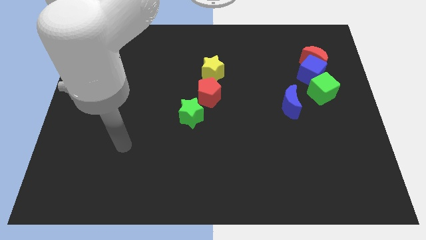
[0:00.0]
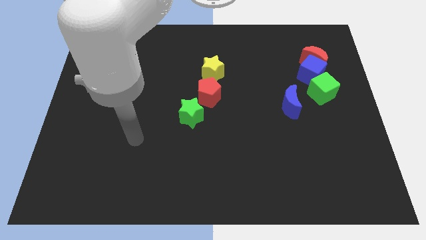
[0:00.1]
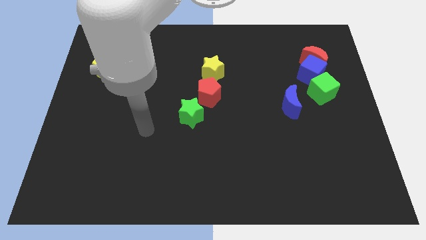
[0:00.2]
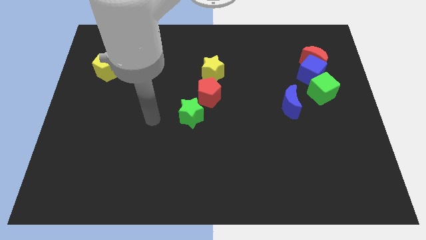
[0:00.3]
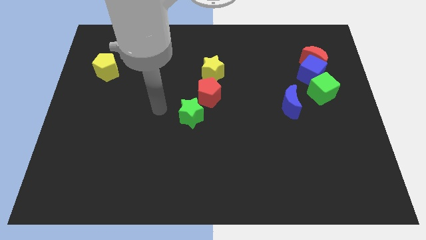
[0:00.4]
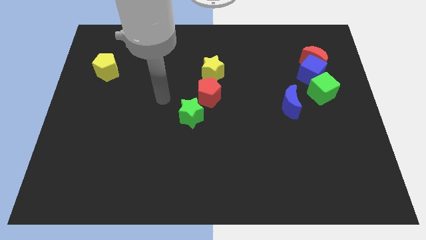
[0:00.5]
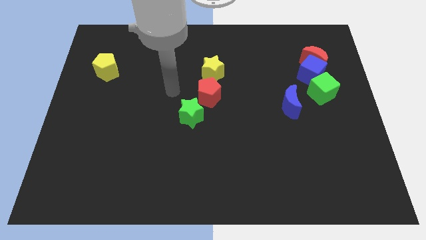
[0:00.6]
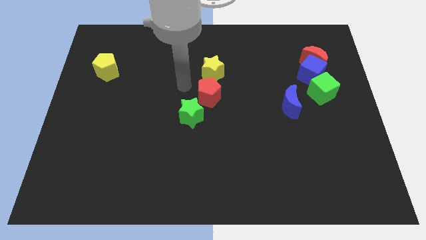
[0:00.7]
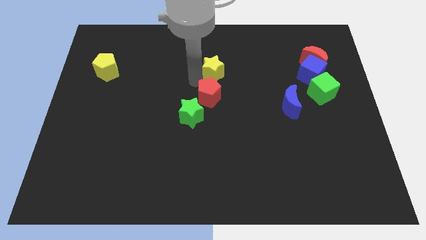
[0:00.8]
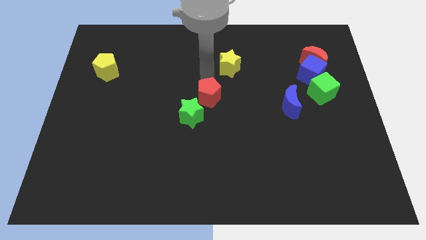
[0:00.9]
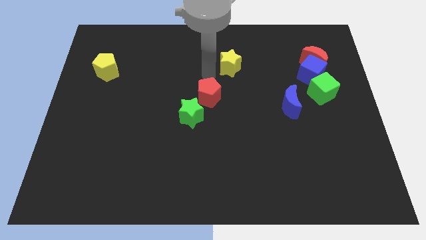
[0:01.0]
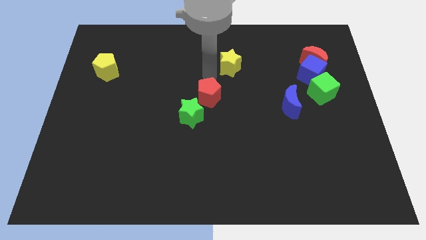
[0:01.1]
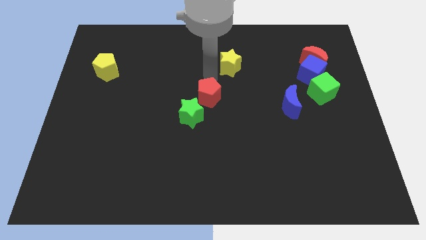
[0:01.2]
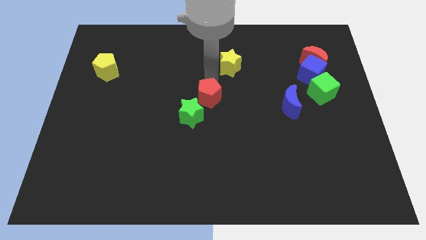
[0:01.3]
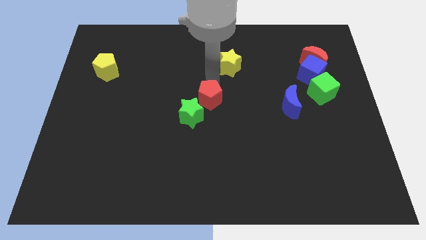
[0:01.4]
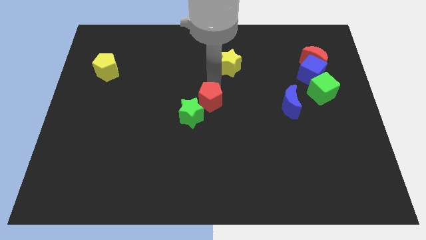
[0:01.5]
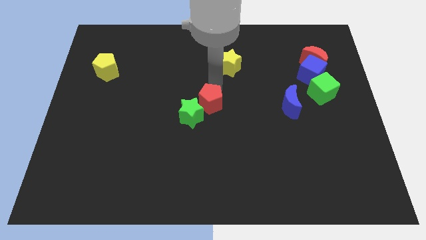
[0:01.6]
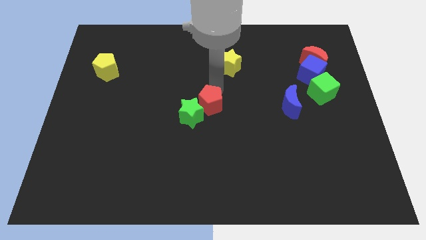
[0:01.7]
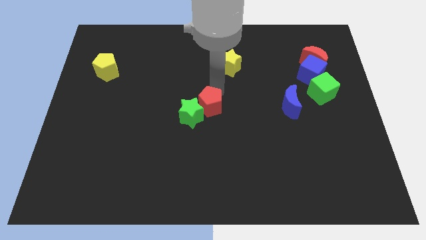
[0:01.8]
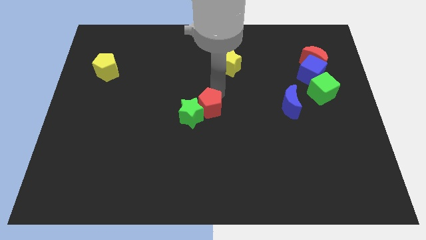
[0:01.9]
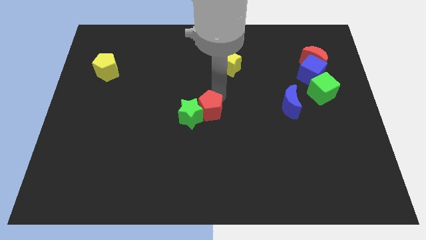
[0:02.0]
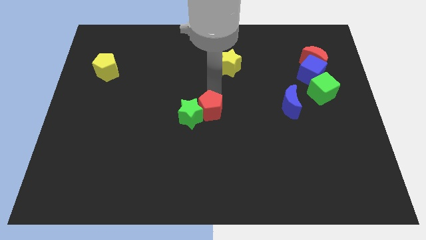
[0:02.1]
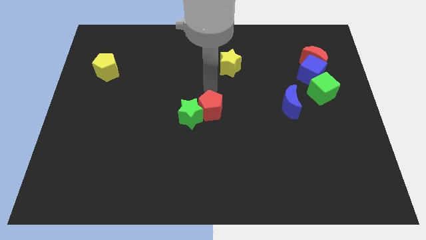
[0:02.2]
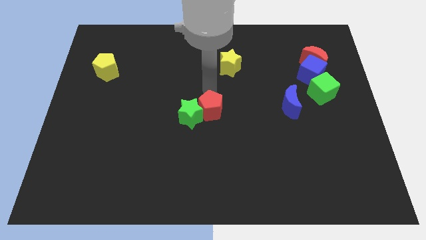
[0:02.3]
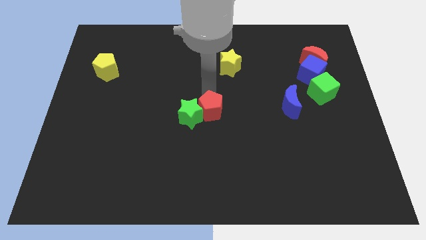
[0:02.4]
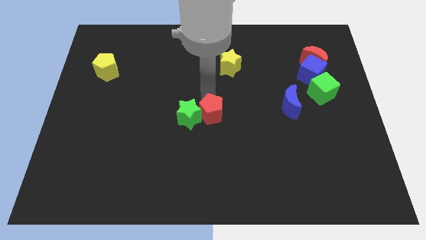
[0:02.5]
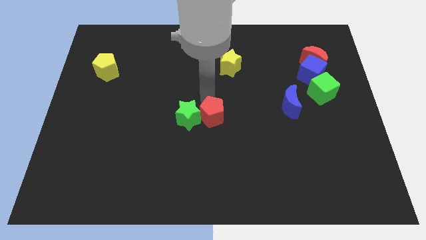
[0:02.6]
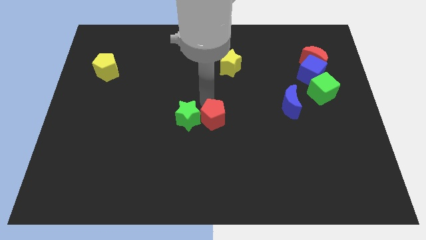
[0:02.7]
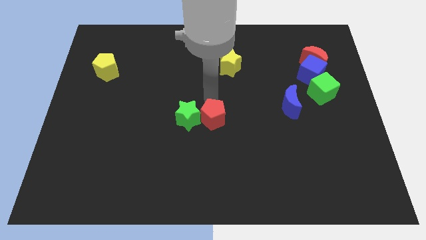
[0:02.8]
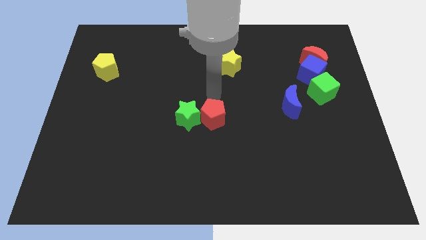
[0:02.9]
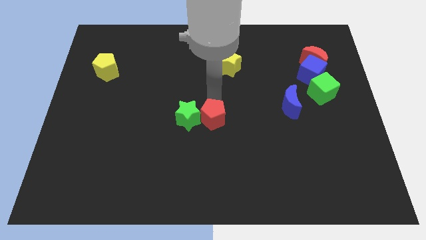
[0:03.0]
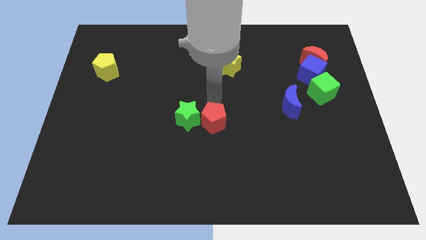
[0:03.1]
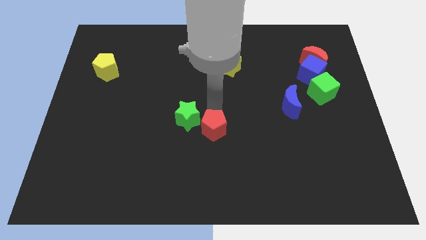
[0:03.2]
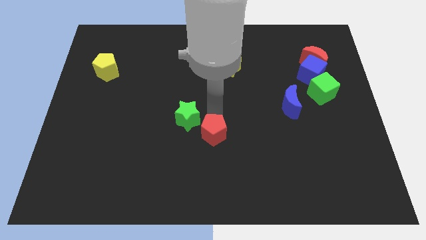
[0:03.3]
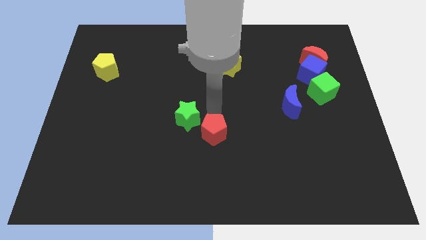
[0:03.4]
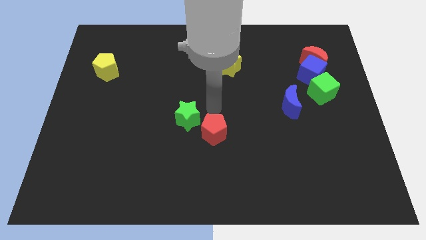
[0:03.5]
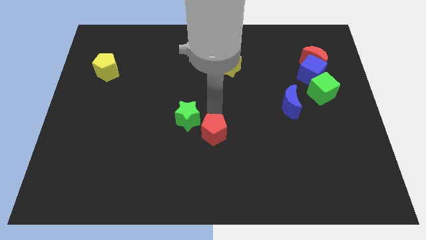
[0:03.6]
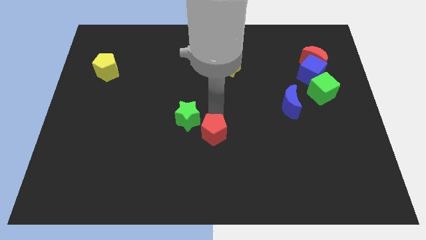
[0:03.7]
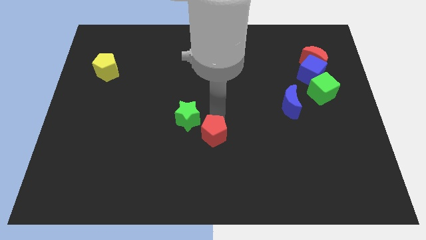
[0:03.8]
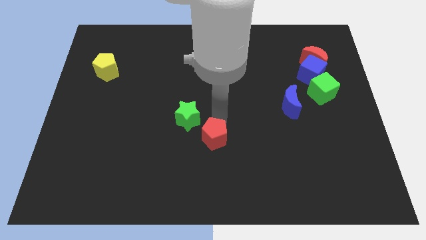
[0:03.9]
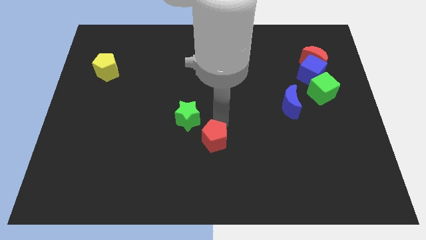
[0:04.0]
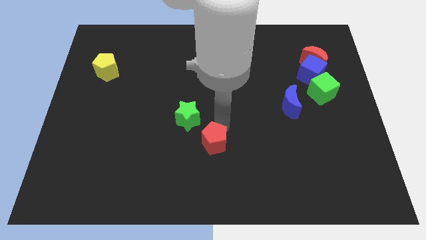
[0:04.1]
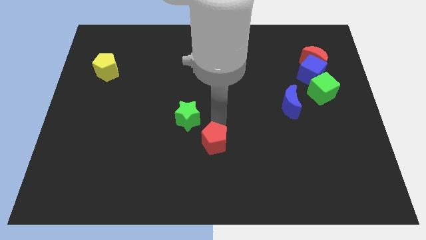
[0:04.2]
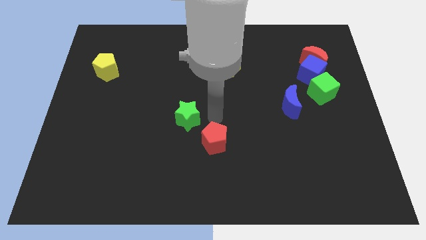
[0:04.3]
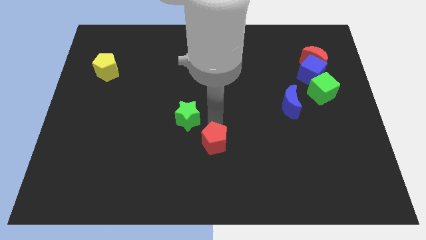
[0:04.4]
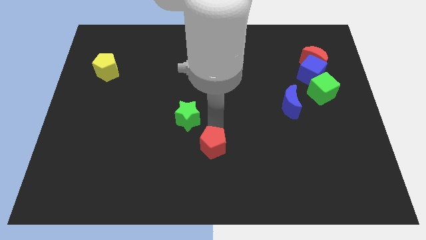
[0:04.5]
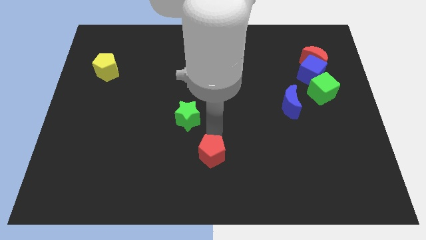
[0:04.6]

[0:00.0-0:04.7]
put the red pentagon to the bottom

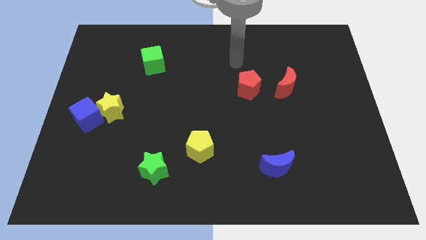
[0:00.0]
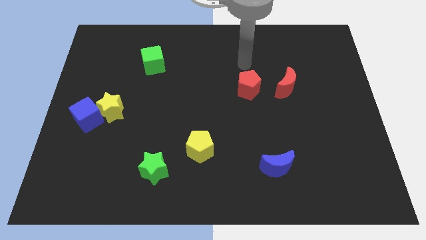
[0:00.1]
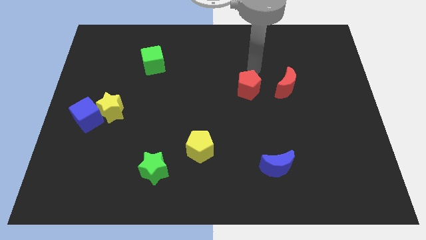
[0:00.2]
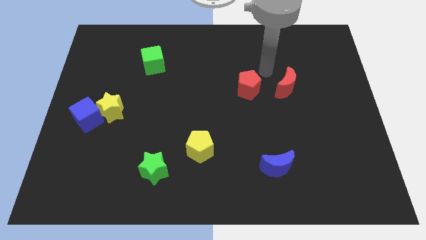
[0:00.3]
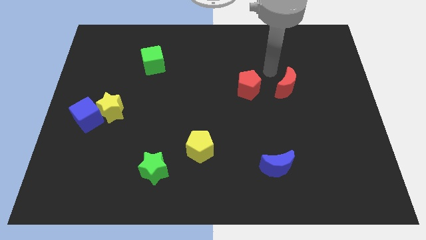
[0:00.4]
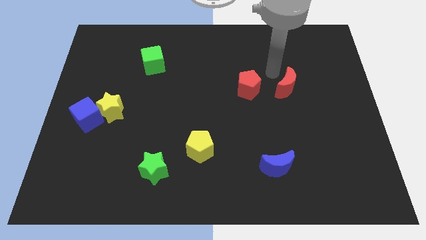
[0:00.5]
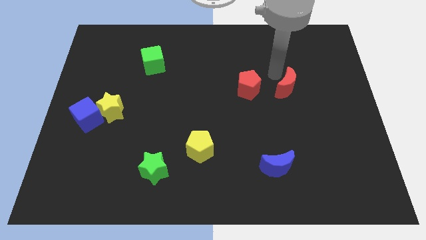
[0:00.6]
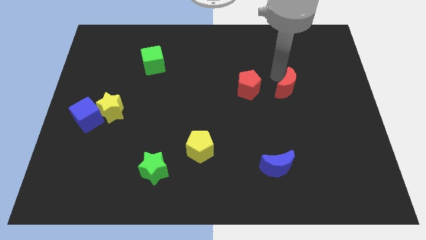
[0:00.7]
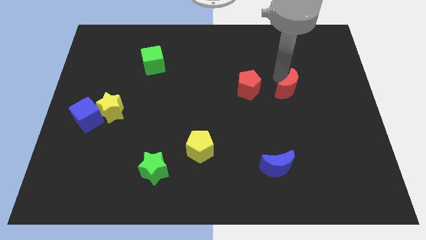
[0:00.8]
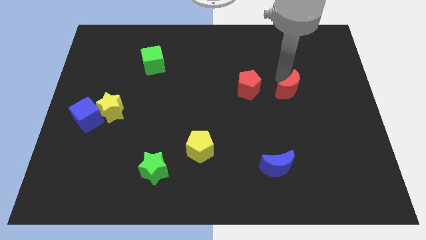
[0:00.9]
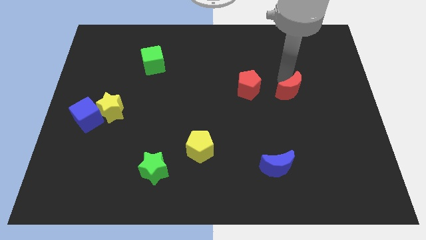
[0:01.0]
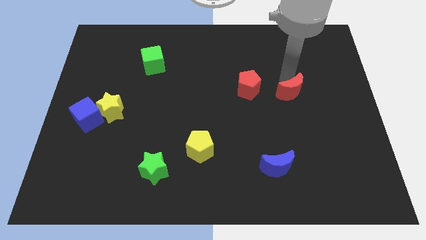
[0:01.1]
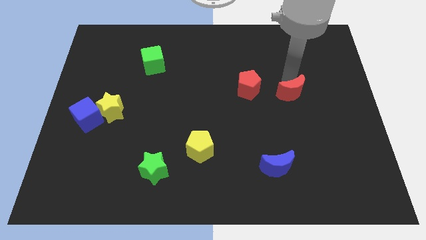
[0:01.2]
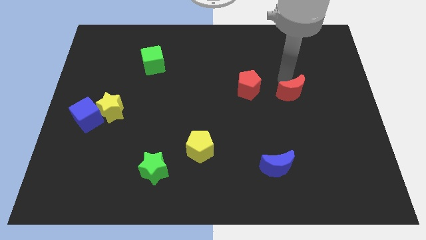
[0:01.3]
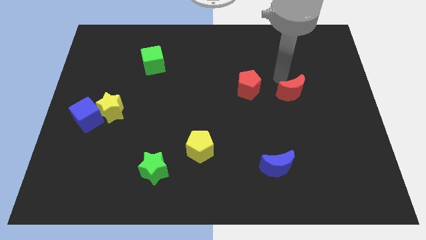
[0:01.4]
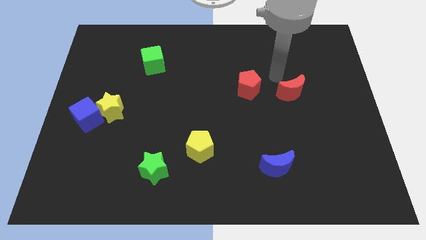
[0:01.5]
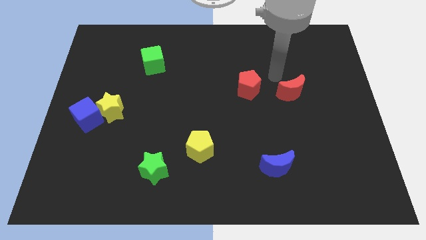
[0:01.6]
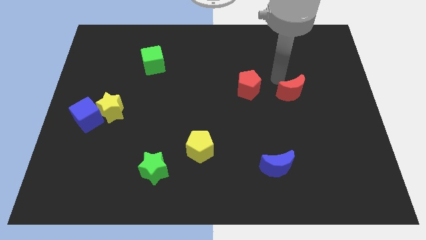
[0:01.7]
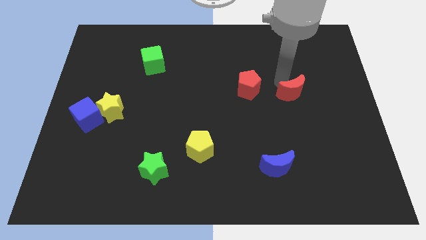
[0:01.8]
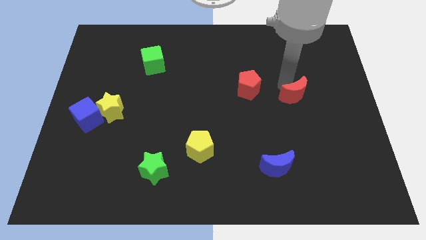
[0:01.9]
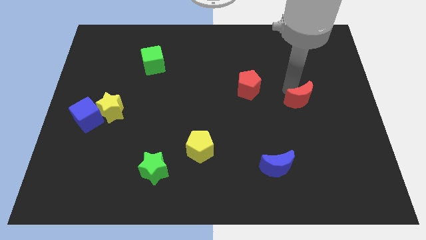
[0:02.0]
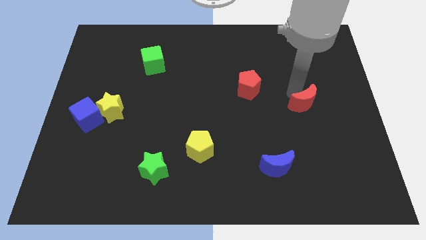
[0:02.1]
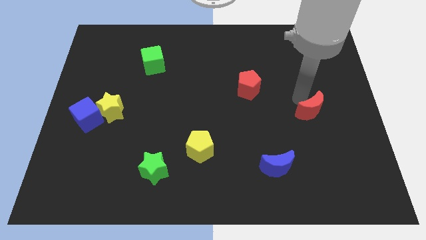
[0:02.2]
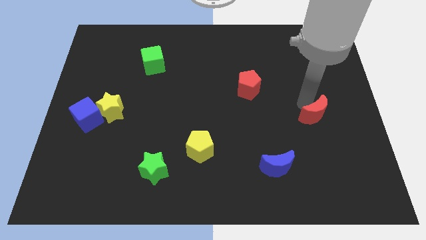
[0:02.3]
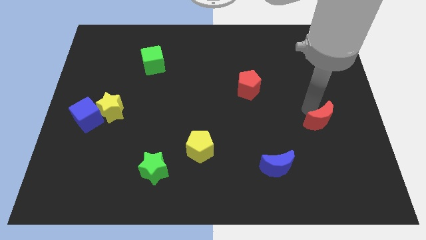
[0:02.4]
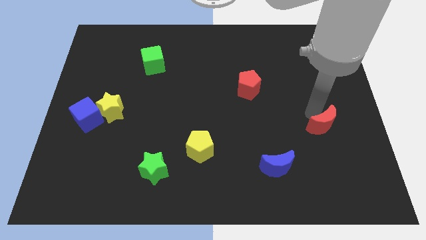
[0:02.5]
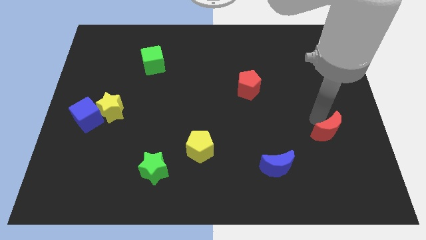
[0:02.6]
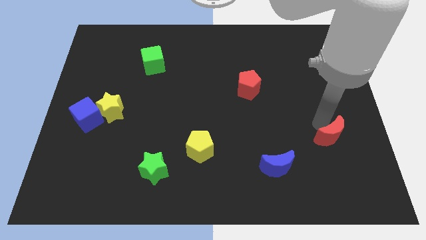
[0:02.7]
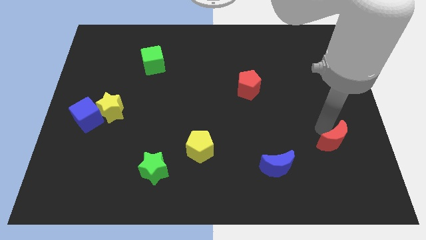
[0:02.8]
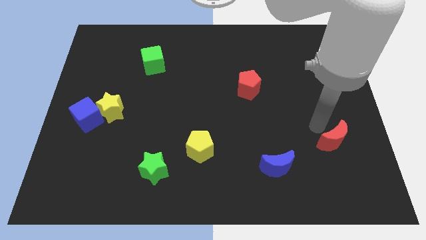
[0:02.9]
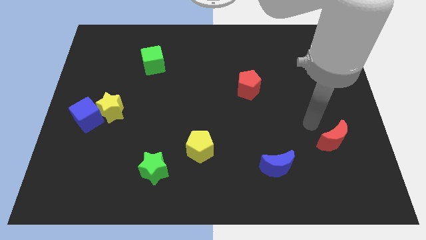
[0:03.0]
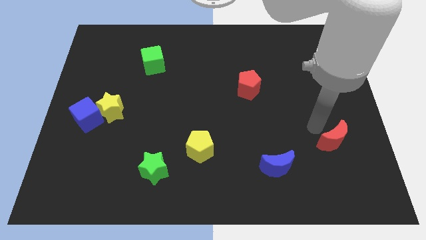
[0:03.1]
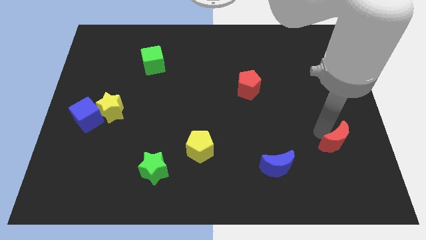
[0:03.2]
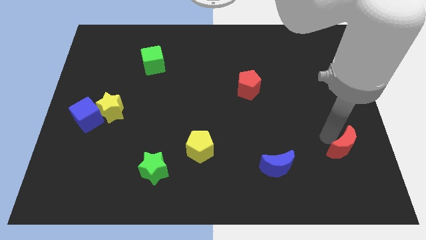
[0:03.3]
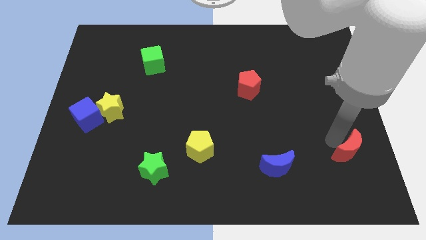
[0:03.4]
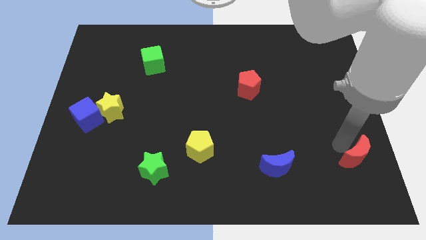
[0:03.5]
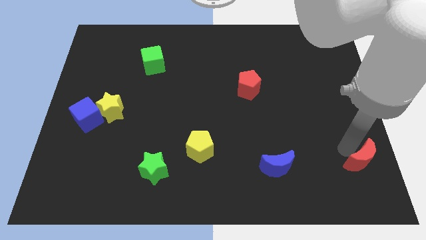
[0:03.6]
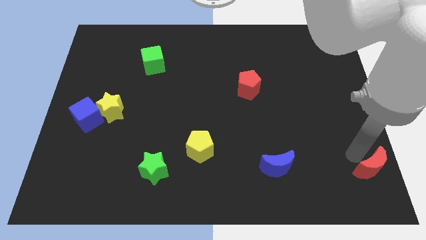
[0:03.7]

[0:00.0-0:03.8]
push the red moon to the lower right corner
